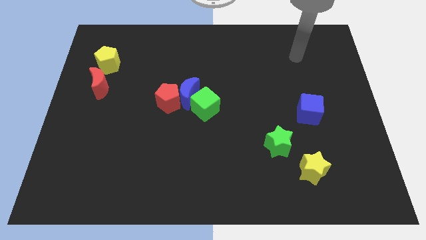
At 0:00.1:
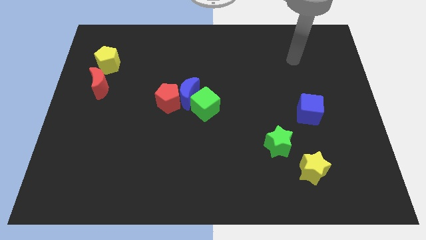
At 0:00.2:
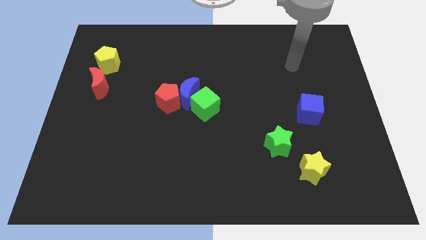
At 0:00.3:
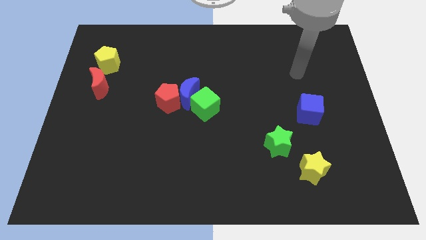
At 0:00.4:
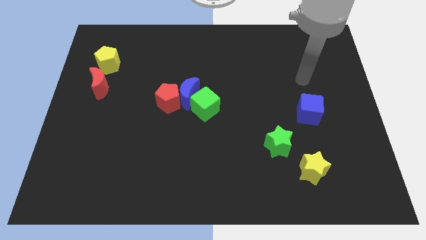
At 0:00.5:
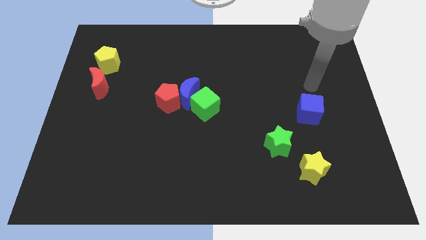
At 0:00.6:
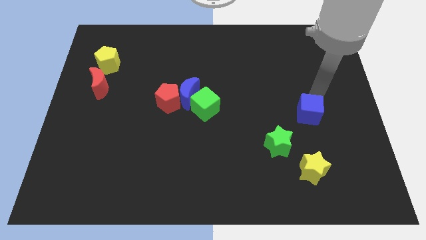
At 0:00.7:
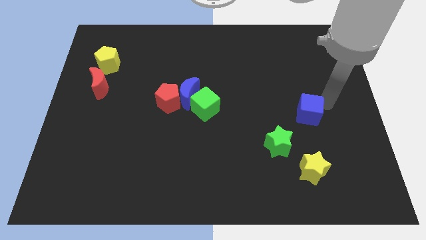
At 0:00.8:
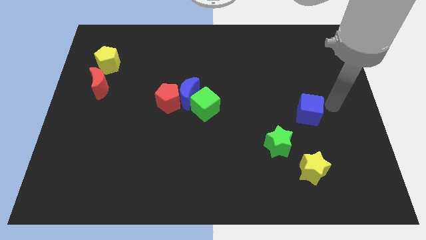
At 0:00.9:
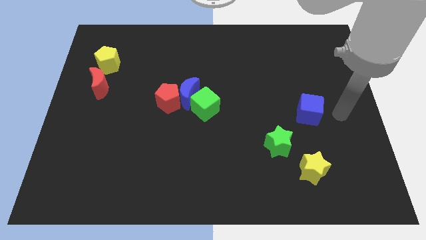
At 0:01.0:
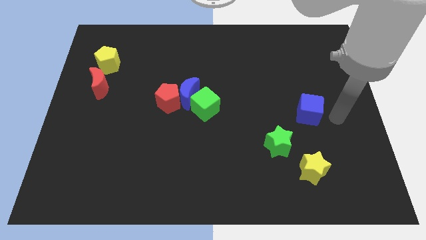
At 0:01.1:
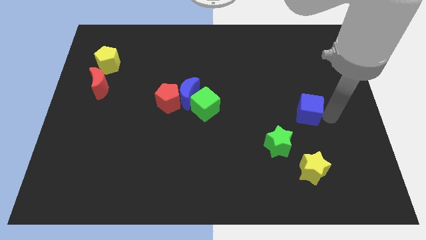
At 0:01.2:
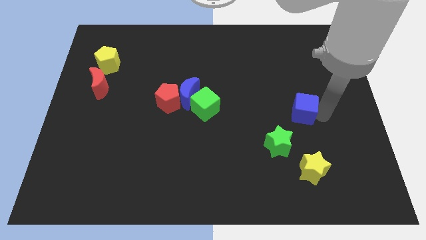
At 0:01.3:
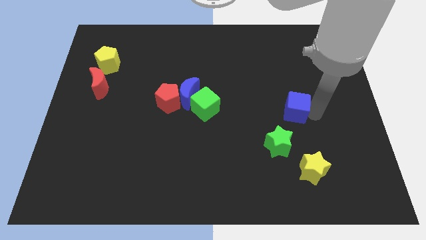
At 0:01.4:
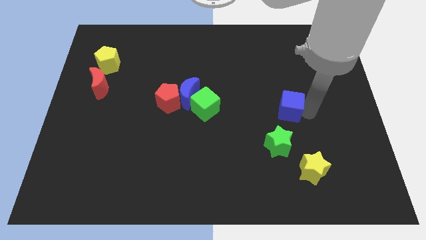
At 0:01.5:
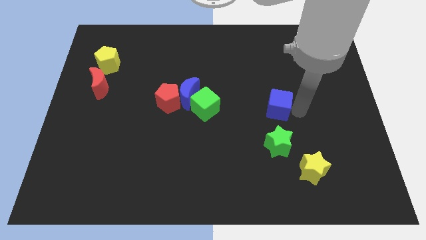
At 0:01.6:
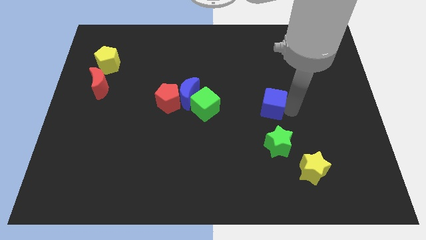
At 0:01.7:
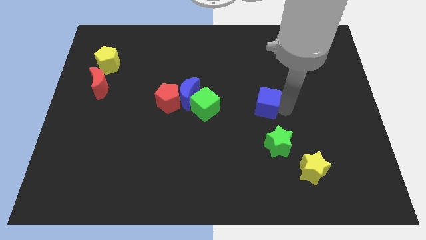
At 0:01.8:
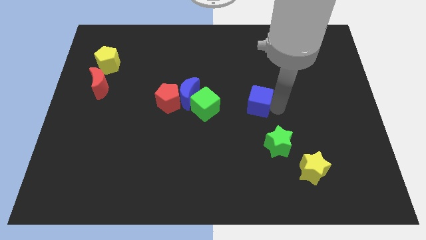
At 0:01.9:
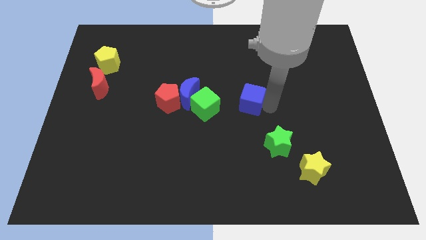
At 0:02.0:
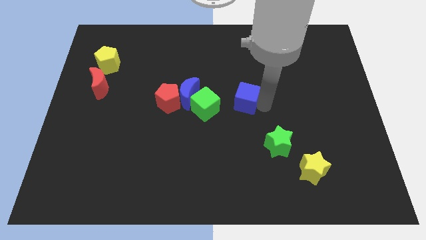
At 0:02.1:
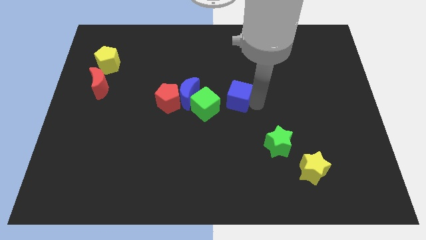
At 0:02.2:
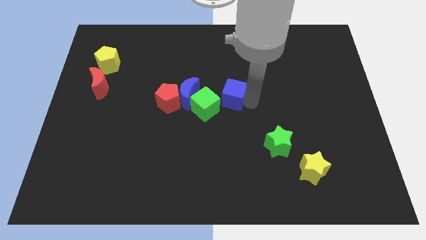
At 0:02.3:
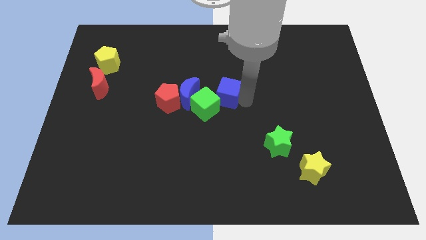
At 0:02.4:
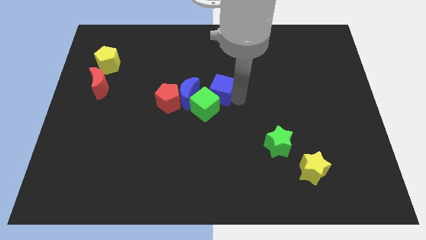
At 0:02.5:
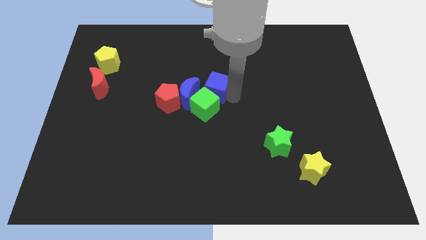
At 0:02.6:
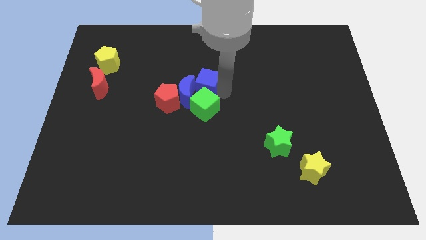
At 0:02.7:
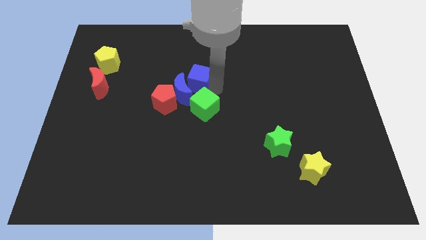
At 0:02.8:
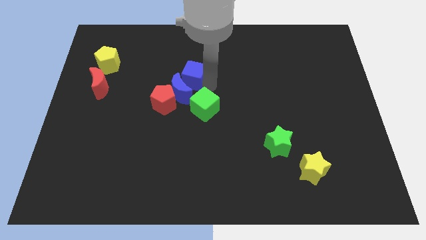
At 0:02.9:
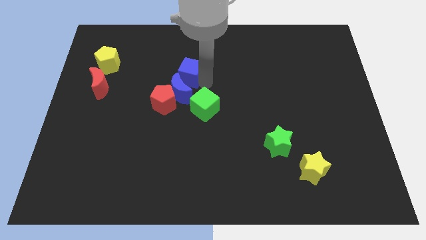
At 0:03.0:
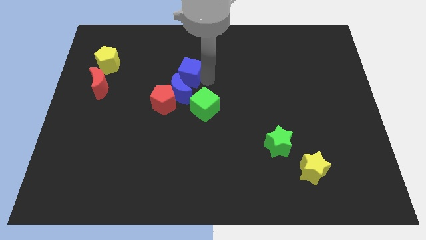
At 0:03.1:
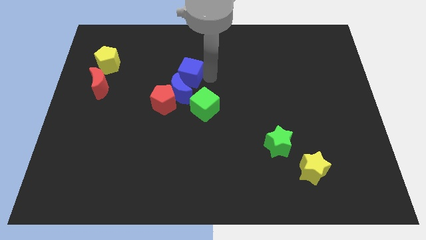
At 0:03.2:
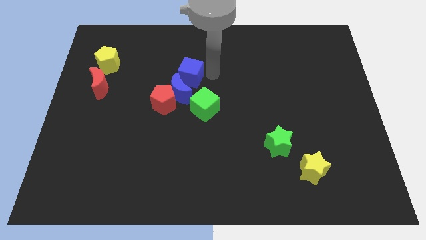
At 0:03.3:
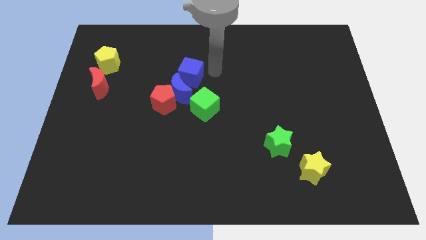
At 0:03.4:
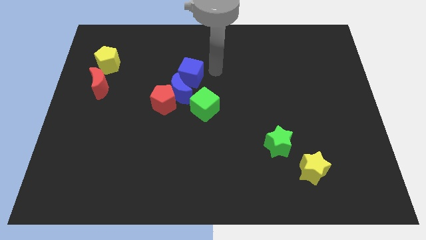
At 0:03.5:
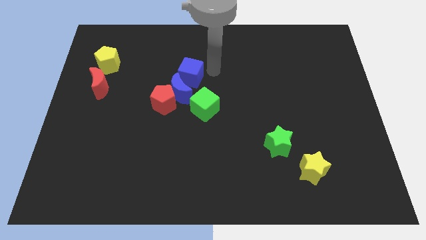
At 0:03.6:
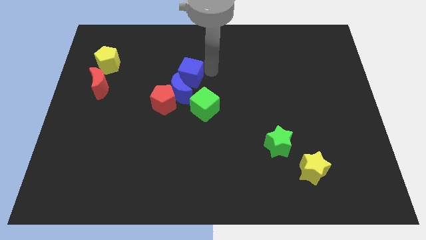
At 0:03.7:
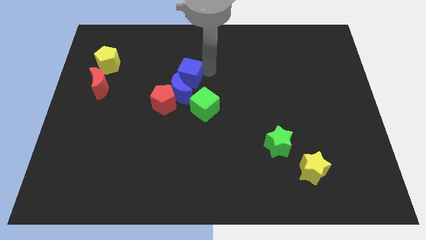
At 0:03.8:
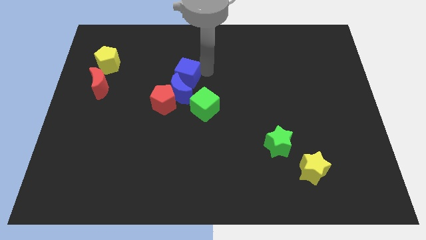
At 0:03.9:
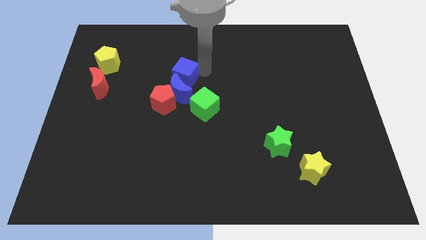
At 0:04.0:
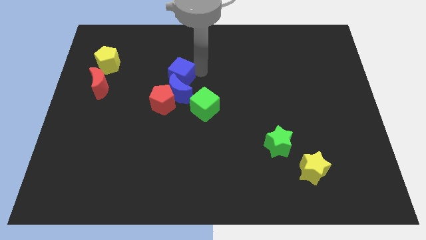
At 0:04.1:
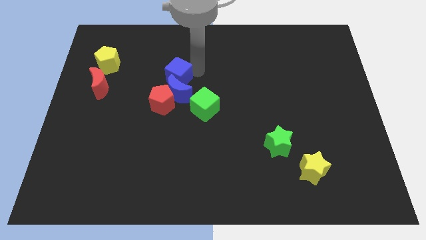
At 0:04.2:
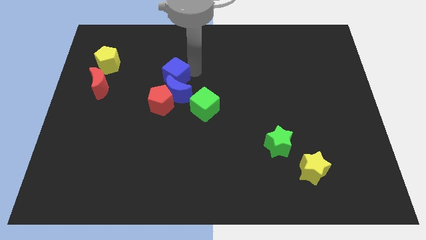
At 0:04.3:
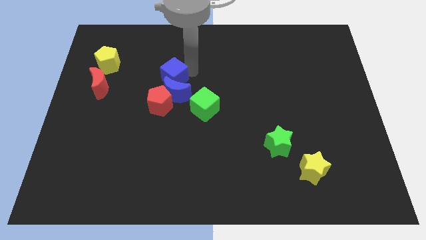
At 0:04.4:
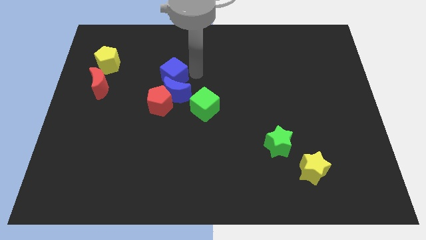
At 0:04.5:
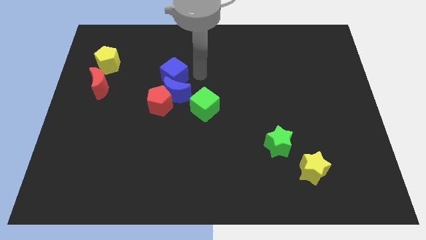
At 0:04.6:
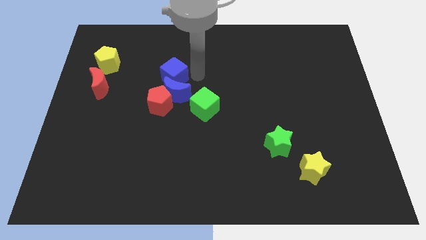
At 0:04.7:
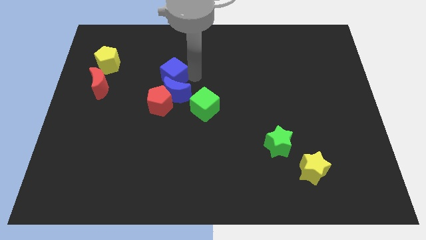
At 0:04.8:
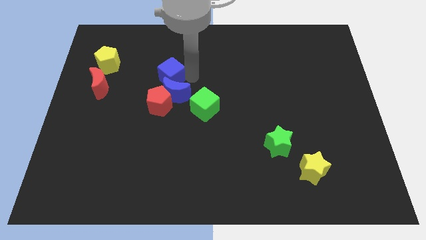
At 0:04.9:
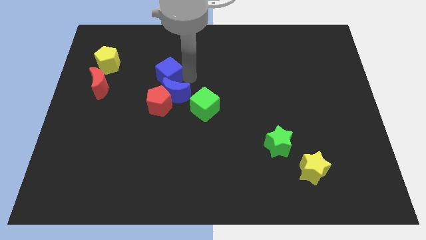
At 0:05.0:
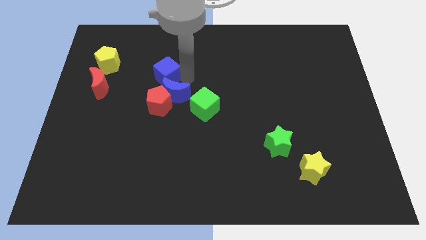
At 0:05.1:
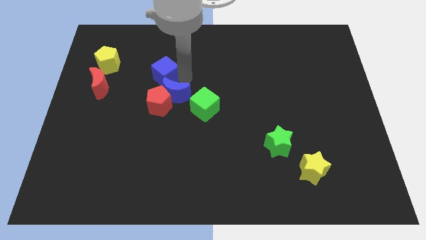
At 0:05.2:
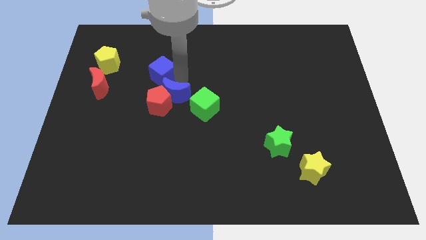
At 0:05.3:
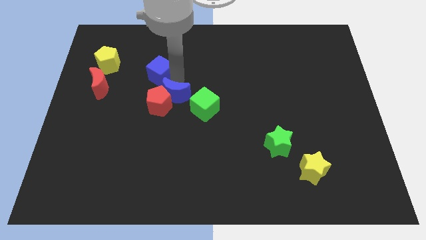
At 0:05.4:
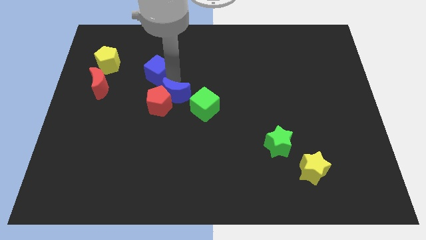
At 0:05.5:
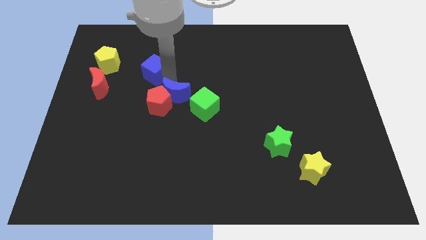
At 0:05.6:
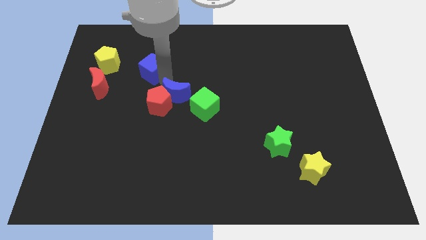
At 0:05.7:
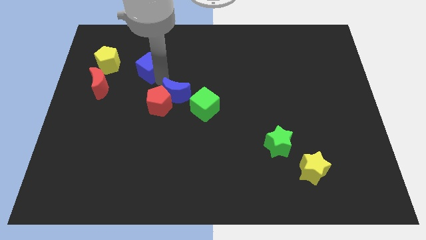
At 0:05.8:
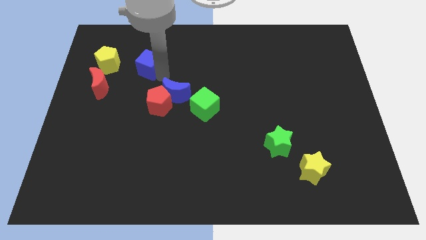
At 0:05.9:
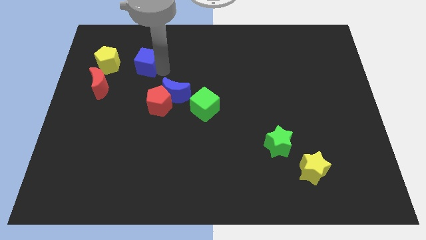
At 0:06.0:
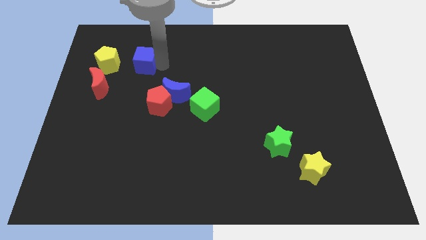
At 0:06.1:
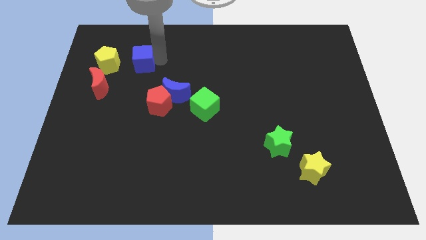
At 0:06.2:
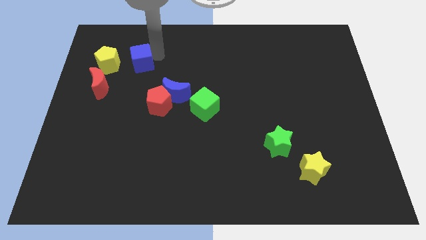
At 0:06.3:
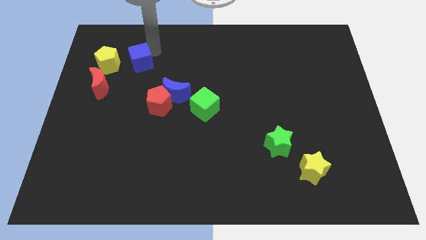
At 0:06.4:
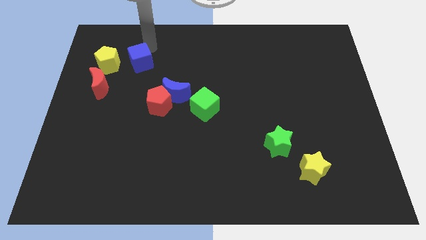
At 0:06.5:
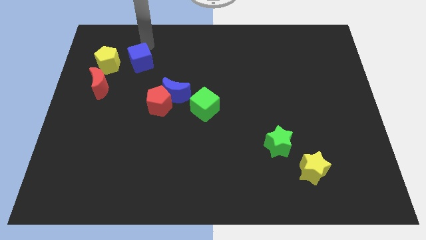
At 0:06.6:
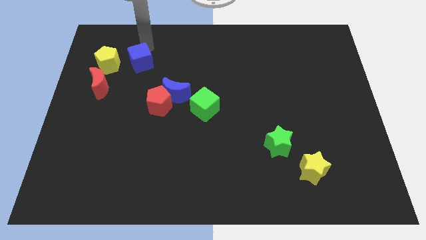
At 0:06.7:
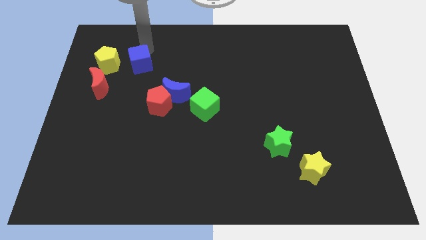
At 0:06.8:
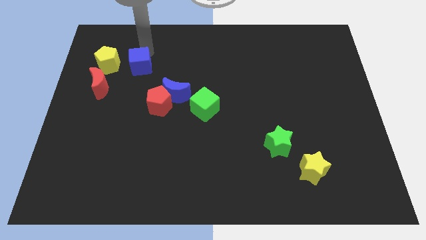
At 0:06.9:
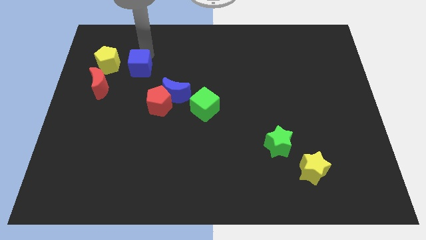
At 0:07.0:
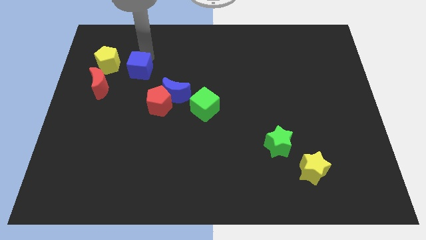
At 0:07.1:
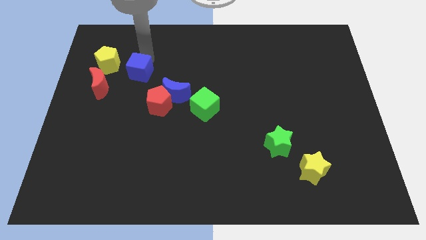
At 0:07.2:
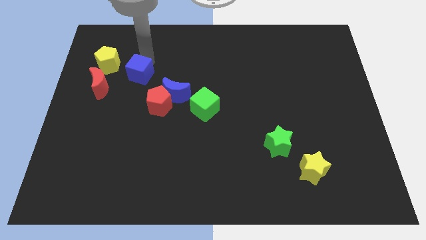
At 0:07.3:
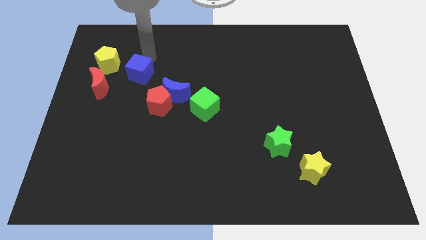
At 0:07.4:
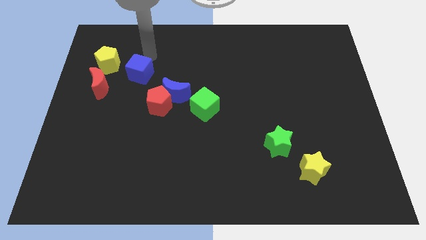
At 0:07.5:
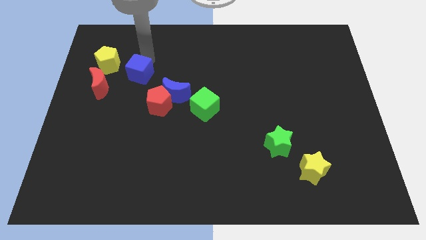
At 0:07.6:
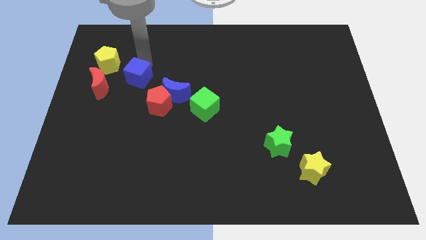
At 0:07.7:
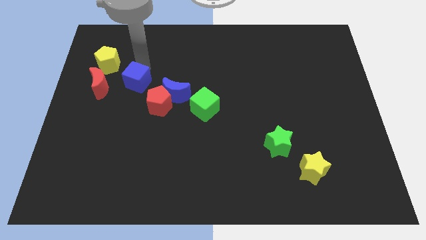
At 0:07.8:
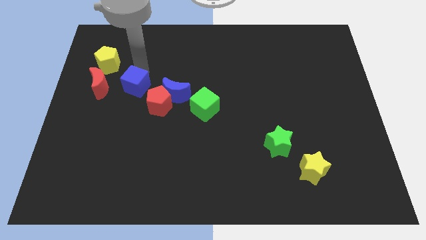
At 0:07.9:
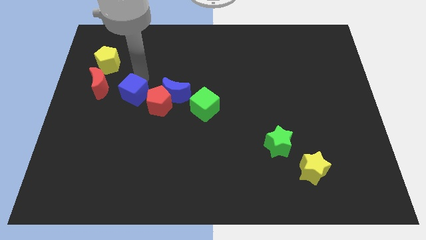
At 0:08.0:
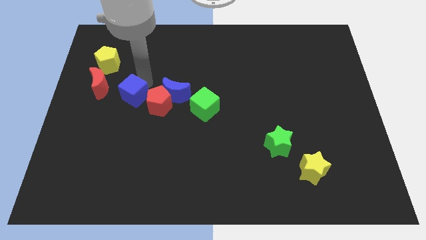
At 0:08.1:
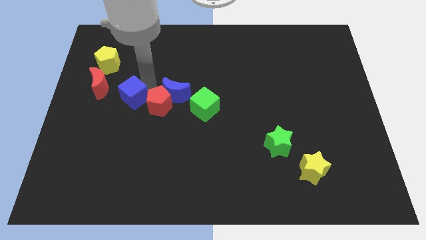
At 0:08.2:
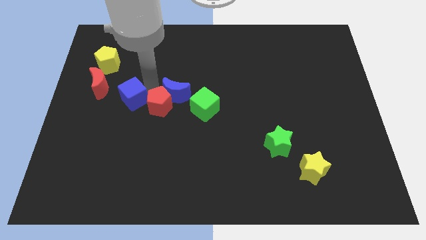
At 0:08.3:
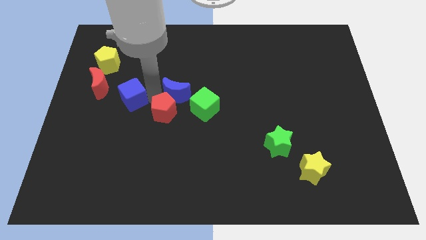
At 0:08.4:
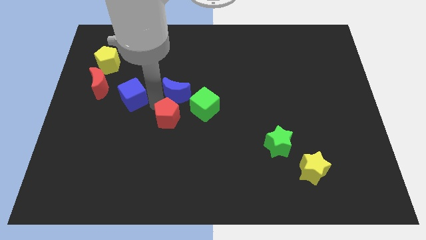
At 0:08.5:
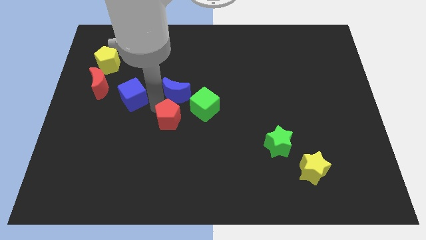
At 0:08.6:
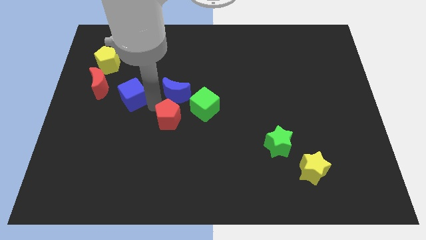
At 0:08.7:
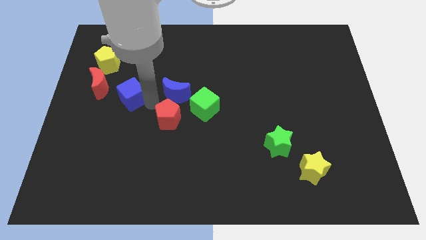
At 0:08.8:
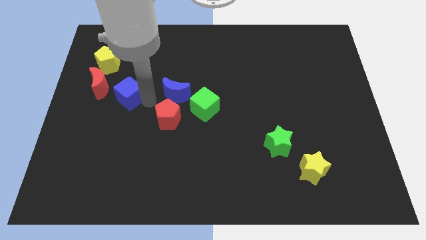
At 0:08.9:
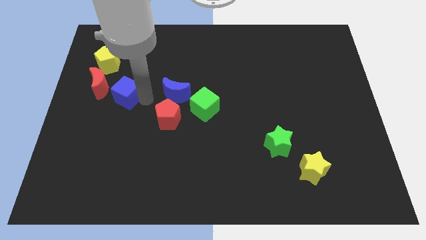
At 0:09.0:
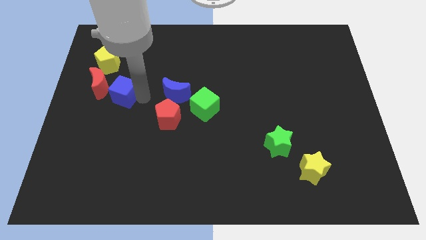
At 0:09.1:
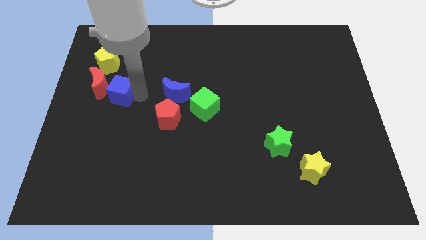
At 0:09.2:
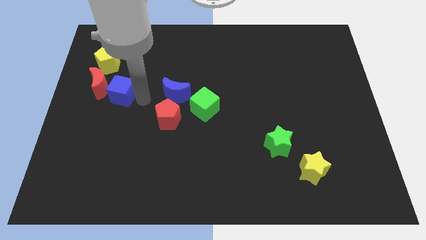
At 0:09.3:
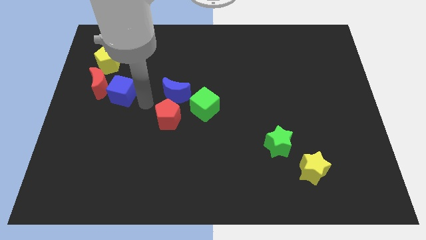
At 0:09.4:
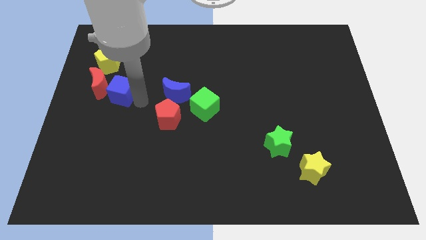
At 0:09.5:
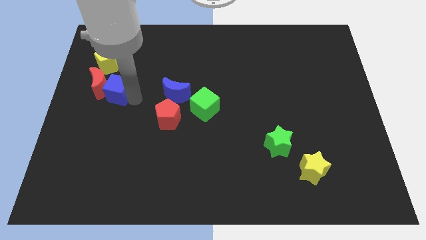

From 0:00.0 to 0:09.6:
put the blue cube towards the red moon
